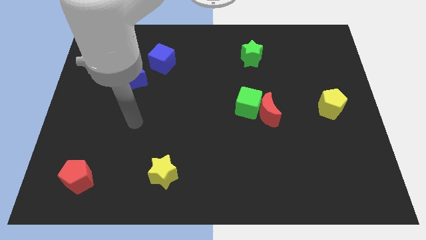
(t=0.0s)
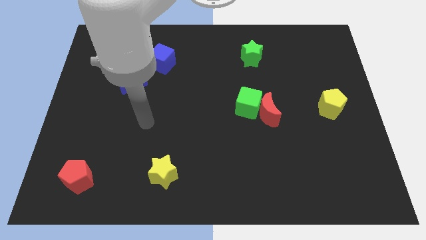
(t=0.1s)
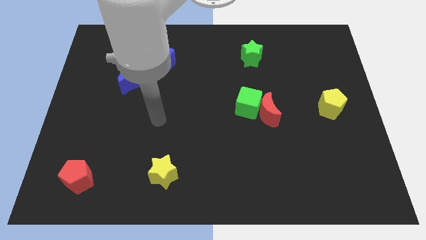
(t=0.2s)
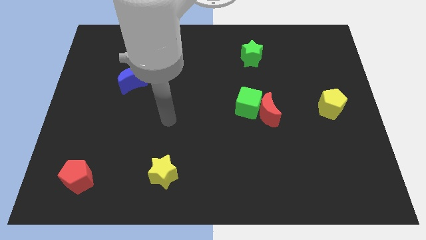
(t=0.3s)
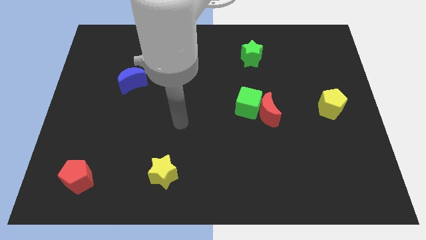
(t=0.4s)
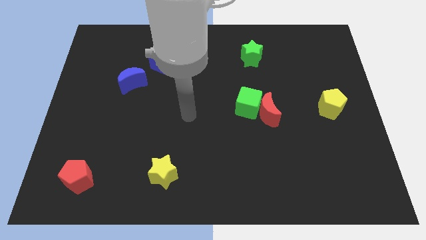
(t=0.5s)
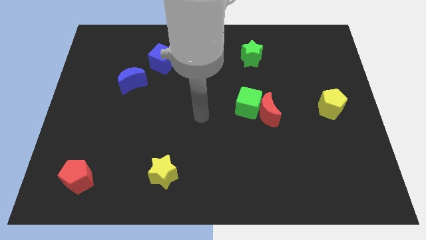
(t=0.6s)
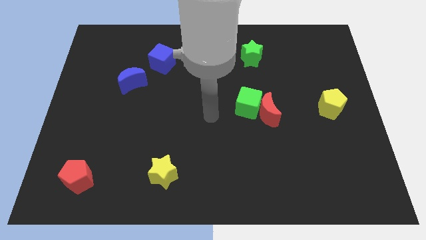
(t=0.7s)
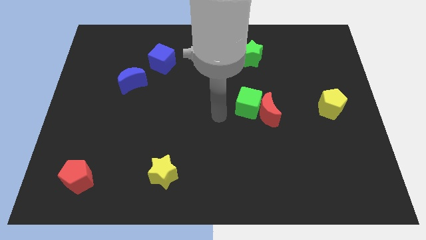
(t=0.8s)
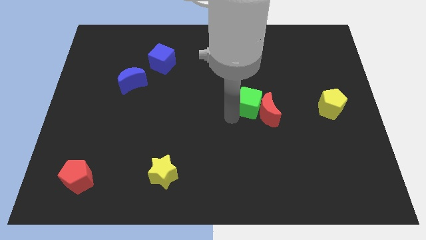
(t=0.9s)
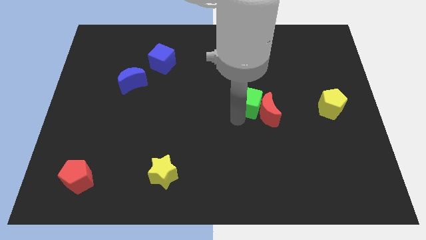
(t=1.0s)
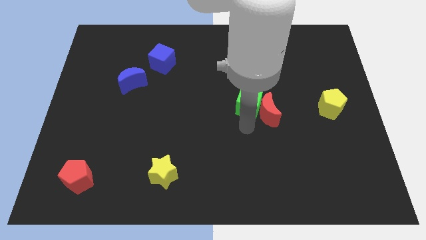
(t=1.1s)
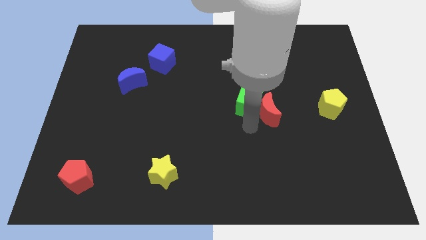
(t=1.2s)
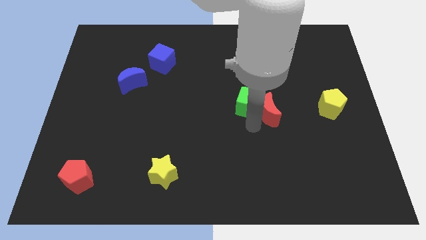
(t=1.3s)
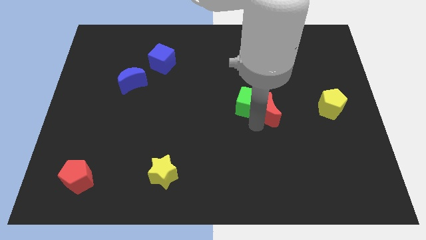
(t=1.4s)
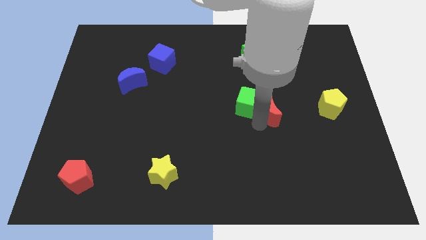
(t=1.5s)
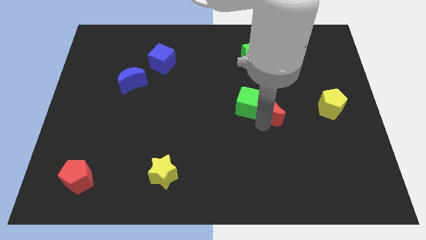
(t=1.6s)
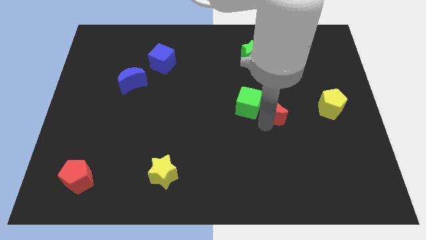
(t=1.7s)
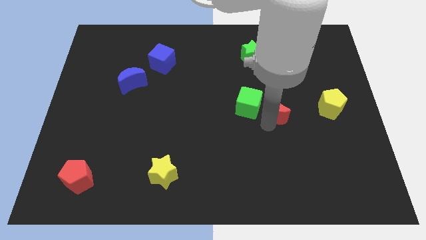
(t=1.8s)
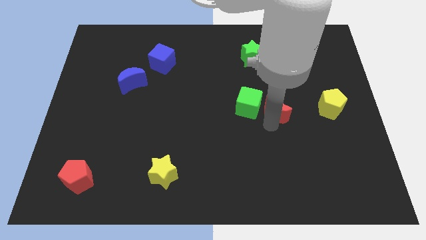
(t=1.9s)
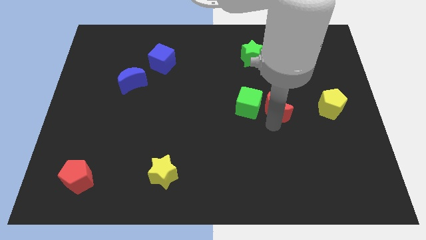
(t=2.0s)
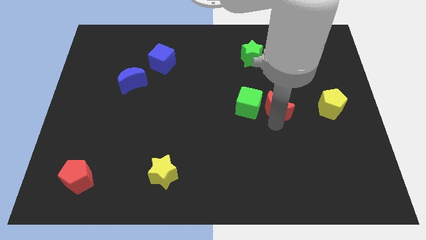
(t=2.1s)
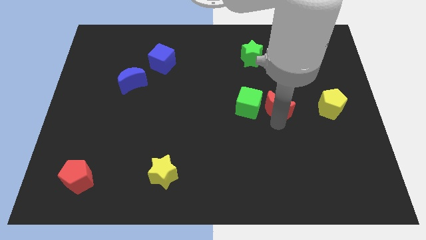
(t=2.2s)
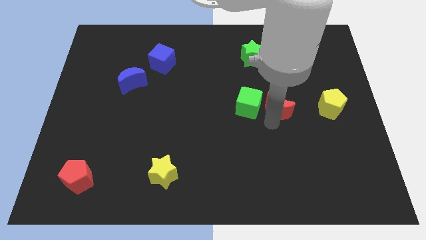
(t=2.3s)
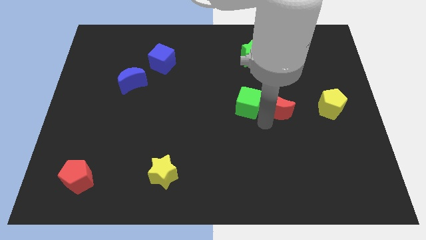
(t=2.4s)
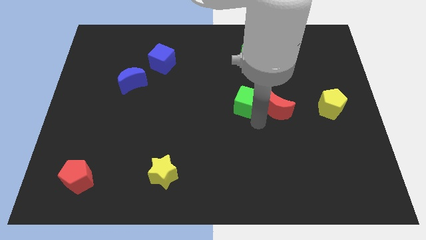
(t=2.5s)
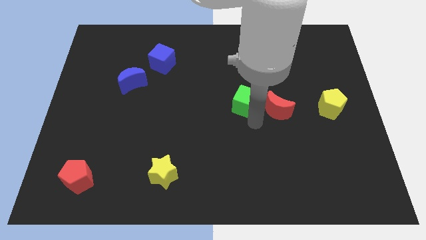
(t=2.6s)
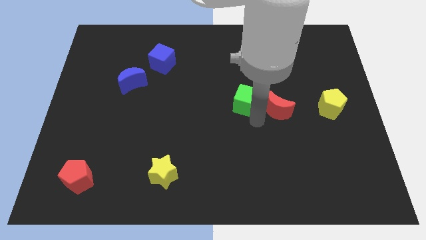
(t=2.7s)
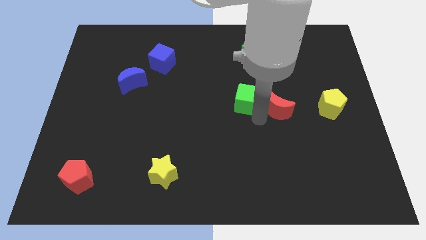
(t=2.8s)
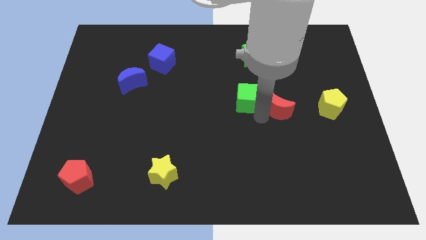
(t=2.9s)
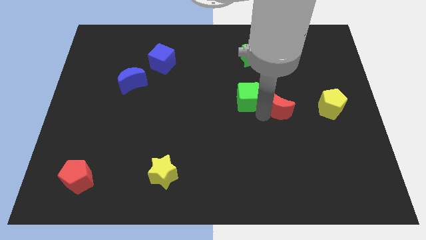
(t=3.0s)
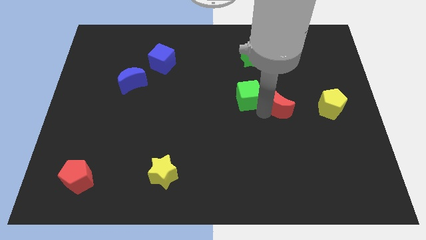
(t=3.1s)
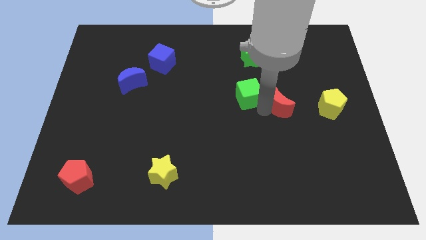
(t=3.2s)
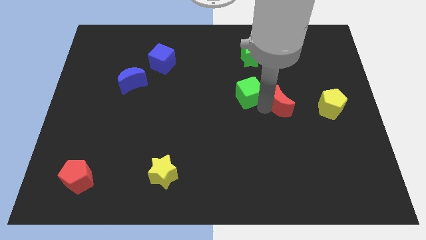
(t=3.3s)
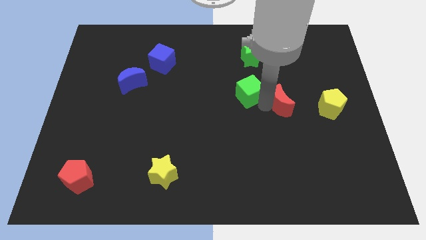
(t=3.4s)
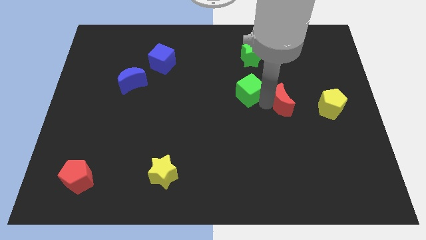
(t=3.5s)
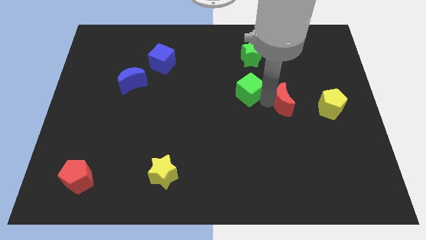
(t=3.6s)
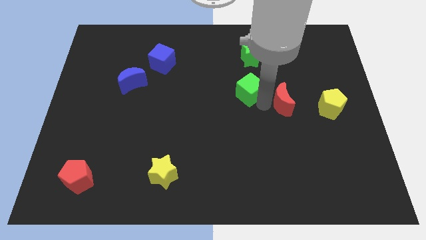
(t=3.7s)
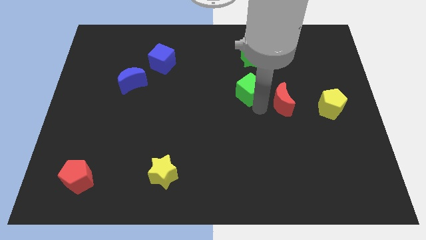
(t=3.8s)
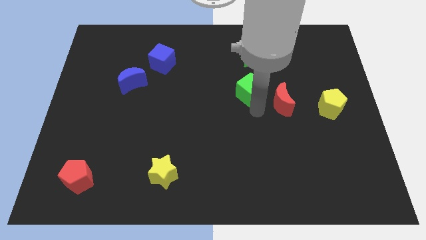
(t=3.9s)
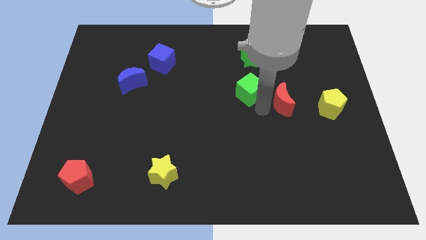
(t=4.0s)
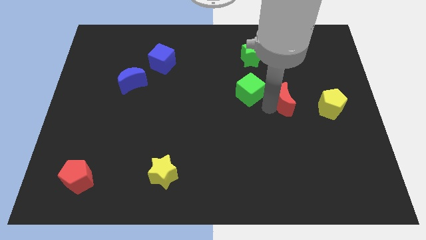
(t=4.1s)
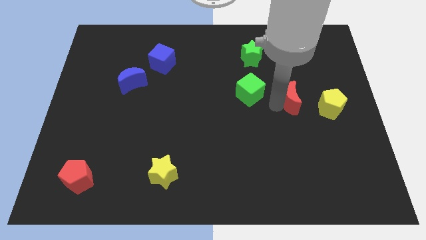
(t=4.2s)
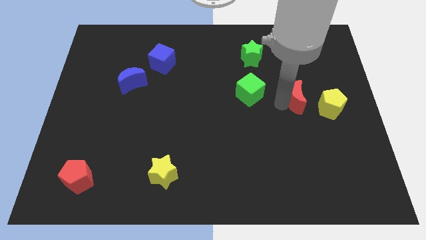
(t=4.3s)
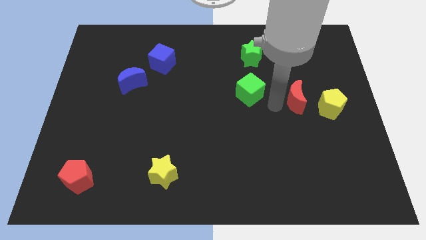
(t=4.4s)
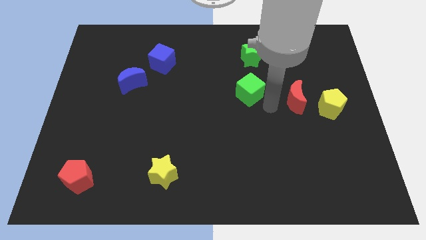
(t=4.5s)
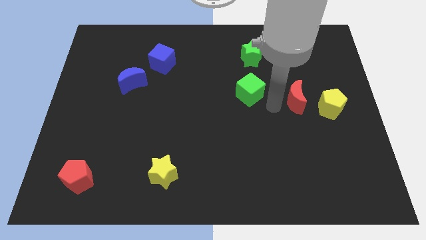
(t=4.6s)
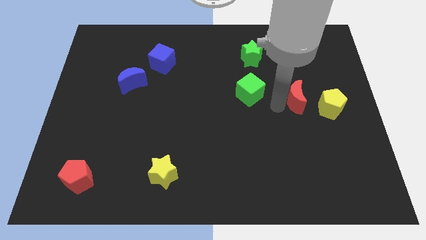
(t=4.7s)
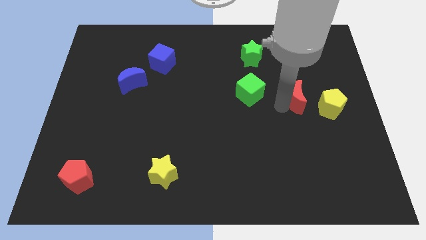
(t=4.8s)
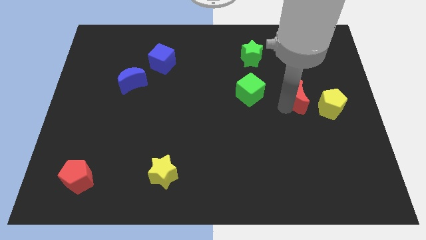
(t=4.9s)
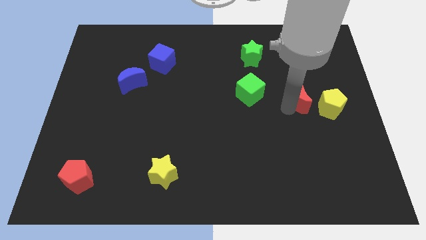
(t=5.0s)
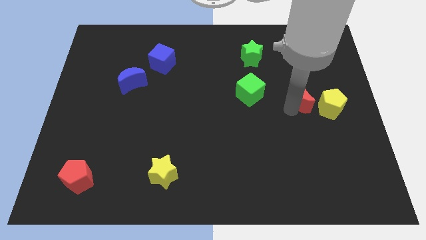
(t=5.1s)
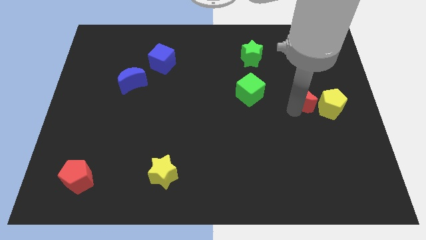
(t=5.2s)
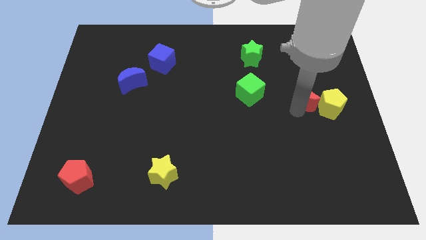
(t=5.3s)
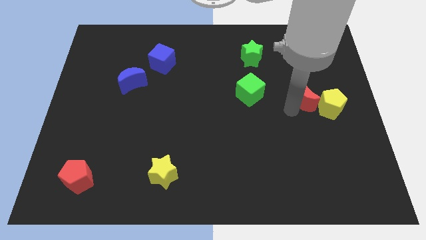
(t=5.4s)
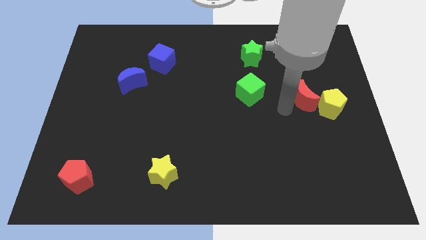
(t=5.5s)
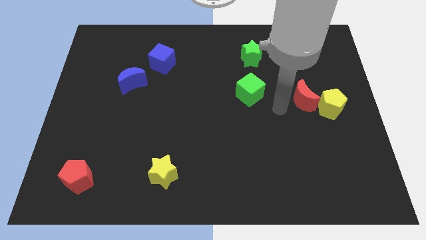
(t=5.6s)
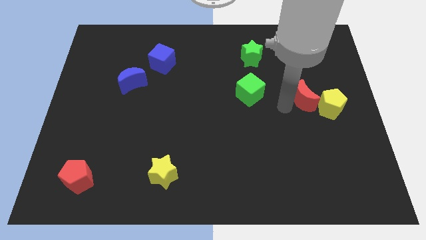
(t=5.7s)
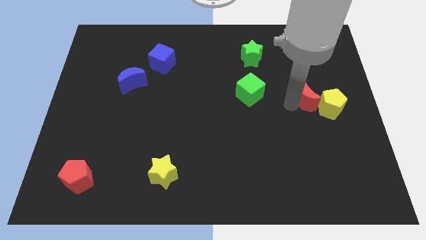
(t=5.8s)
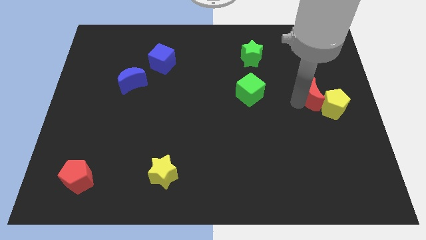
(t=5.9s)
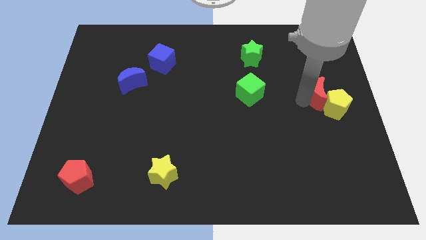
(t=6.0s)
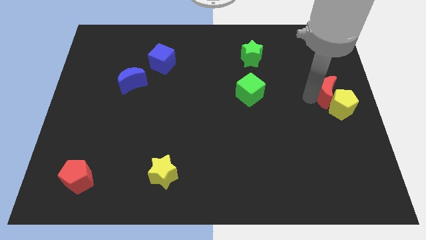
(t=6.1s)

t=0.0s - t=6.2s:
put the red moon to the right side of the board
